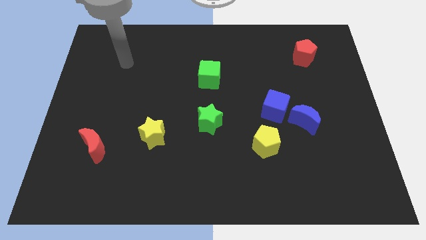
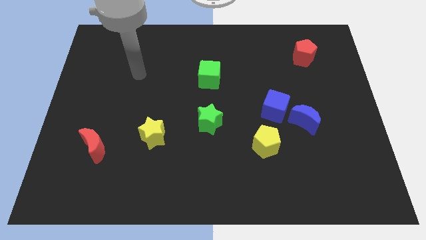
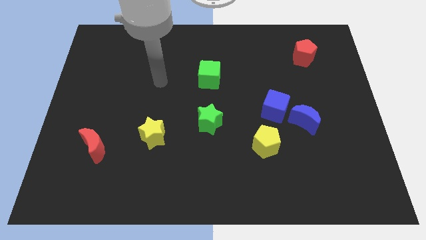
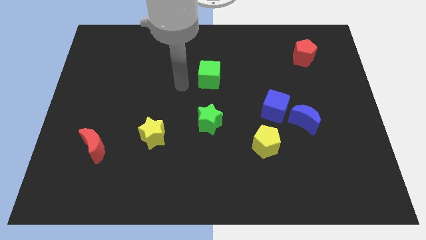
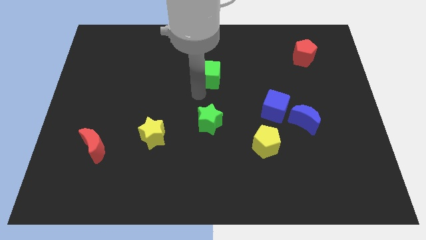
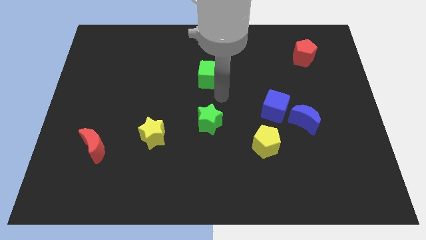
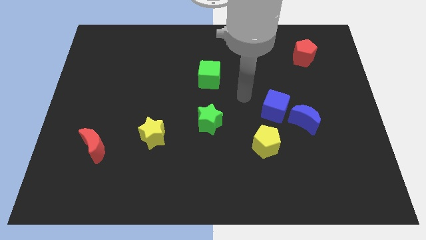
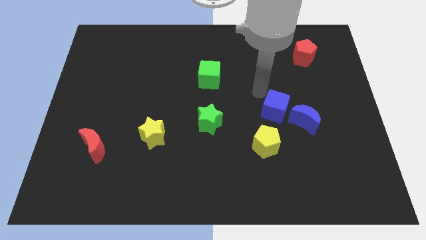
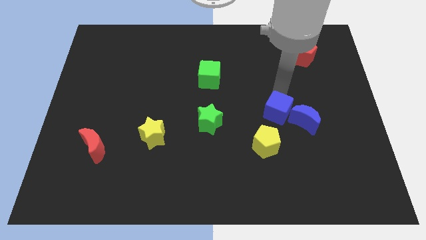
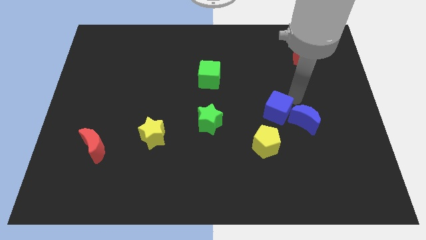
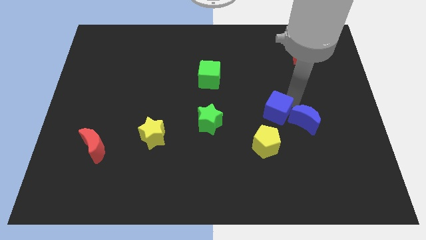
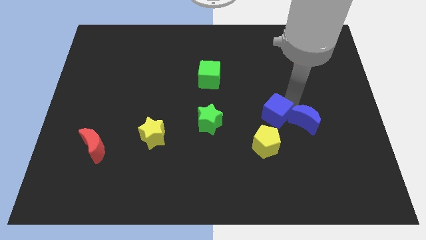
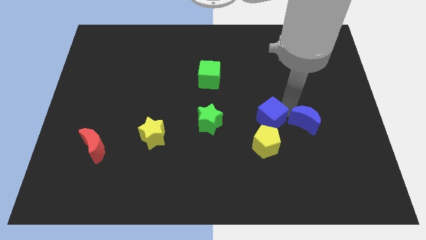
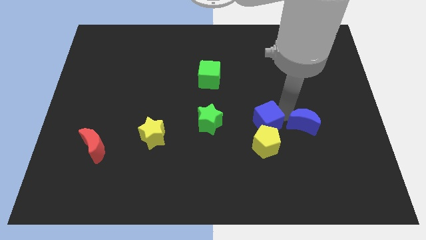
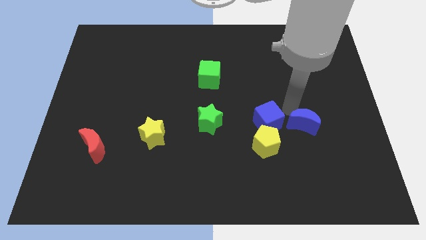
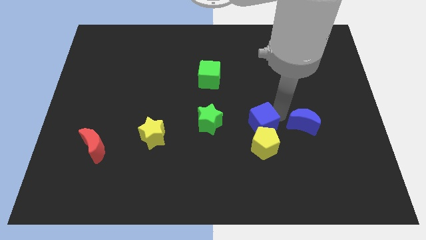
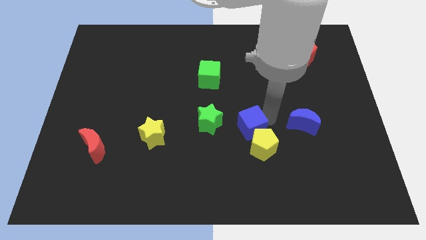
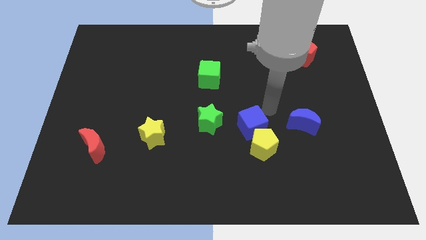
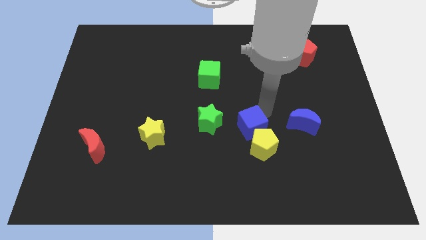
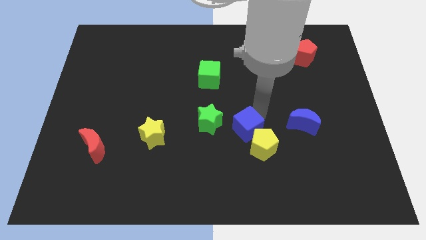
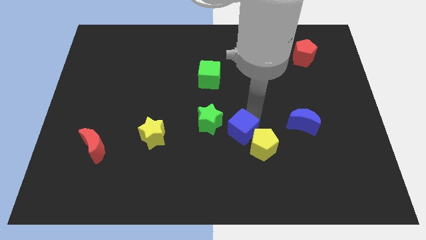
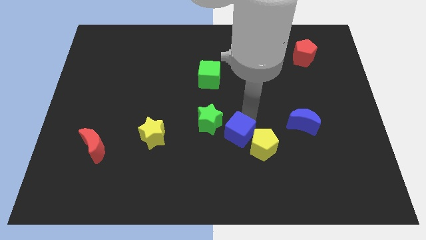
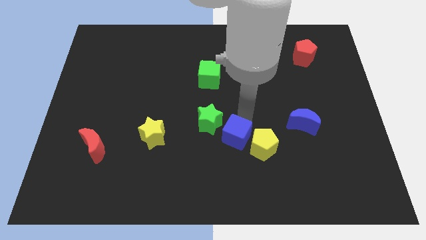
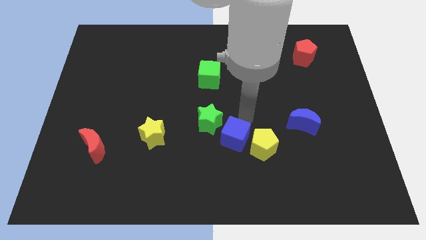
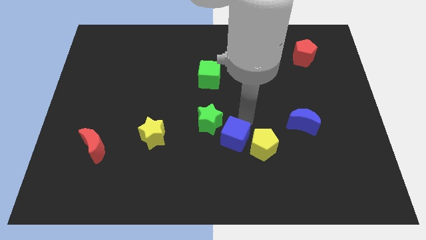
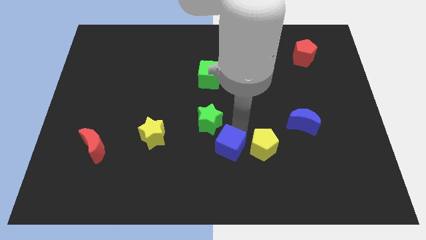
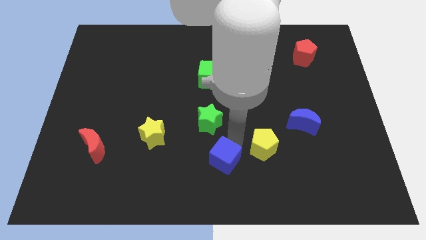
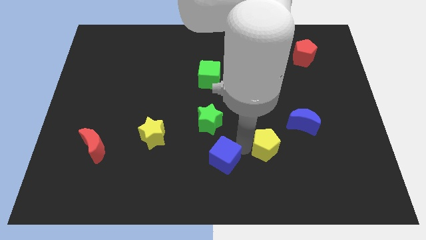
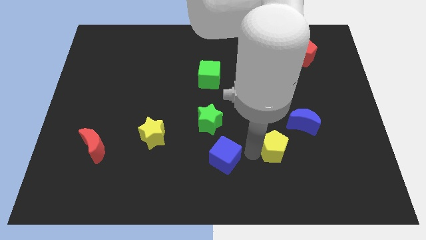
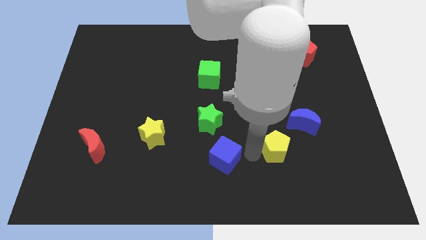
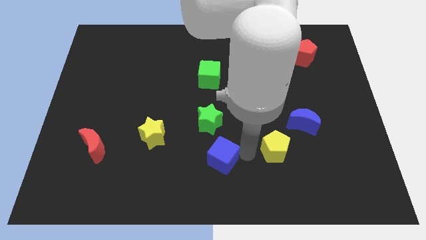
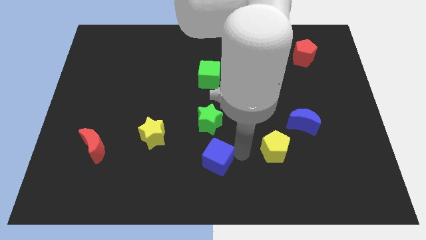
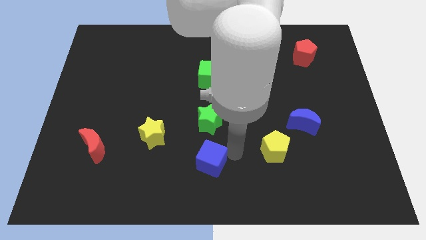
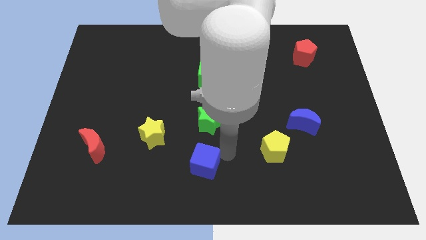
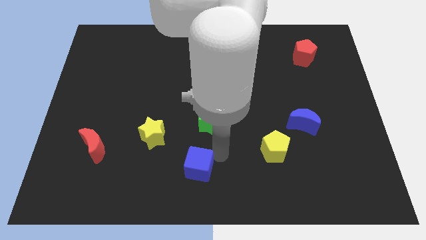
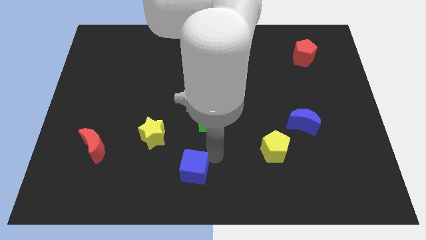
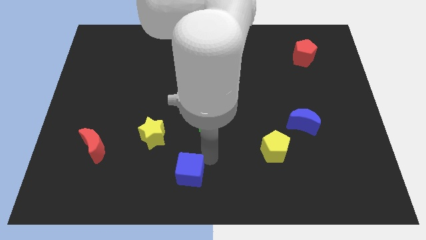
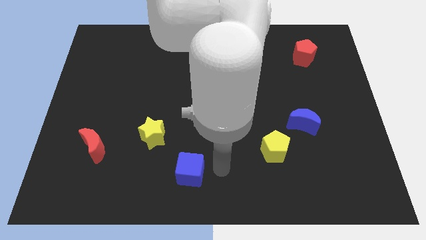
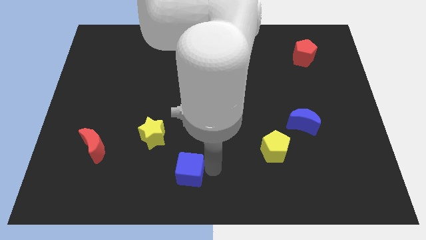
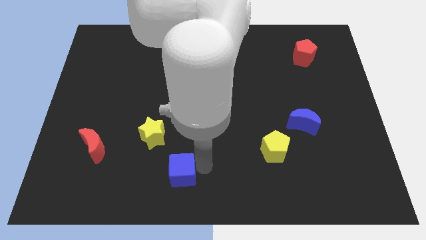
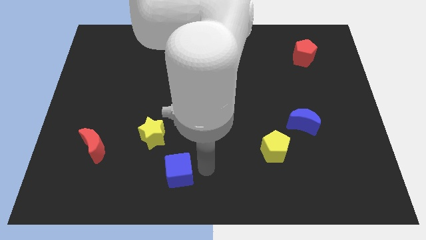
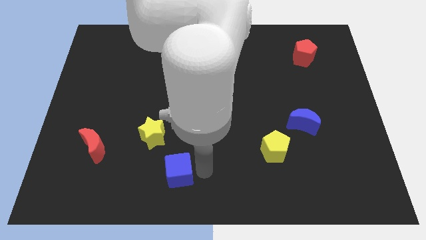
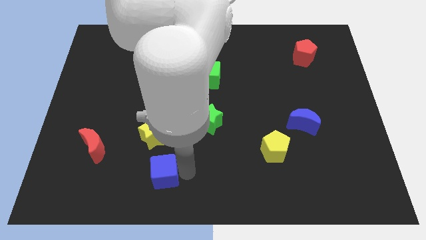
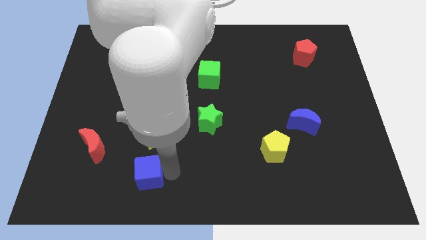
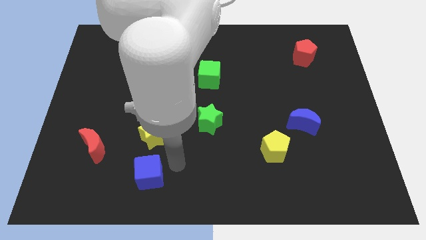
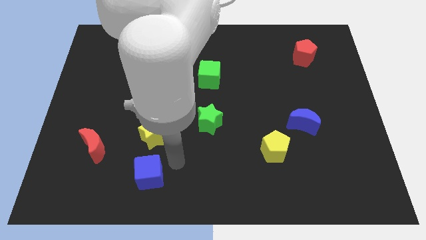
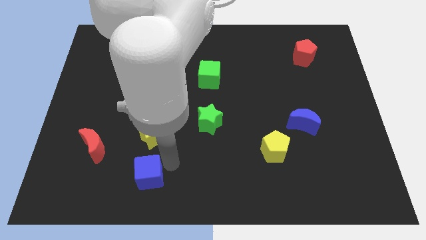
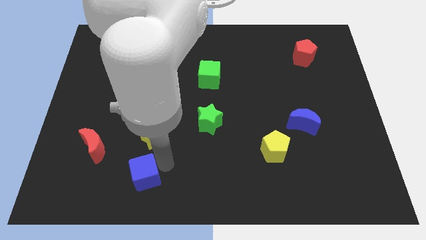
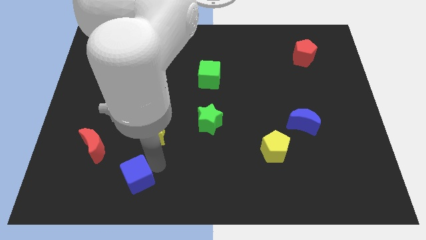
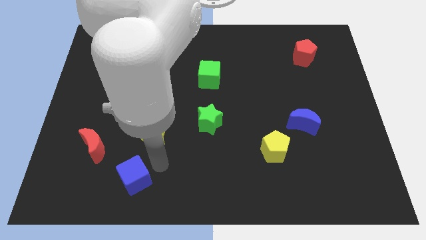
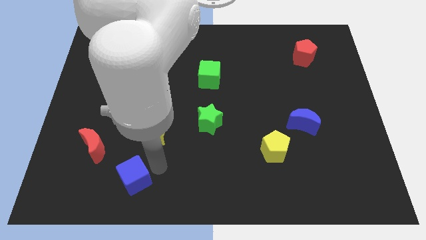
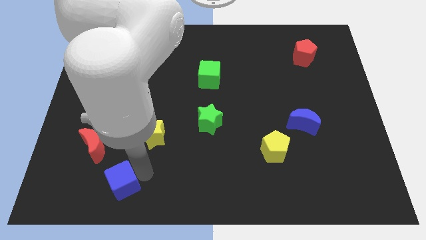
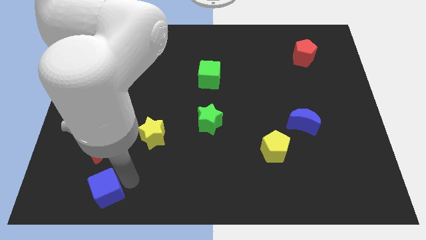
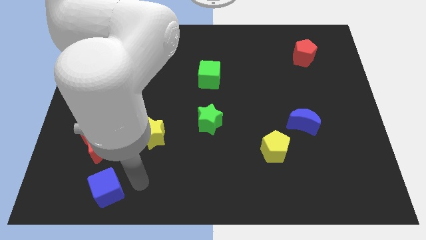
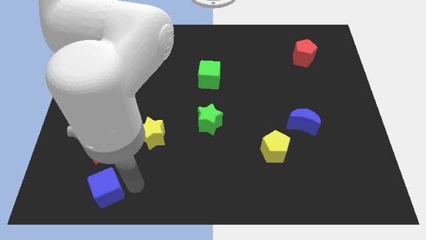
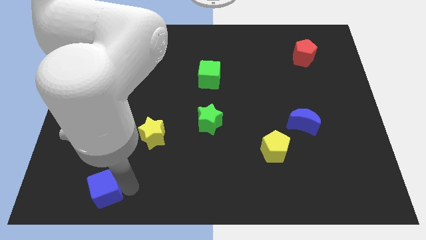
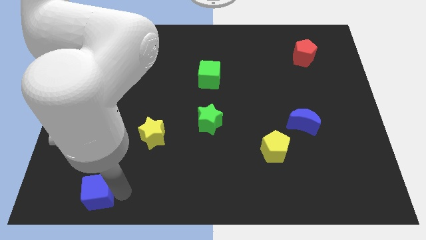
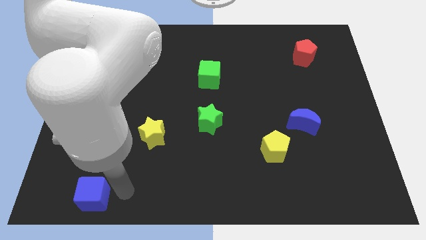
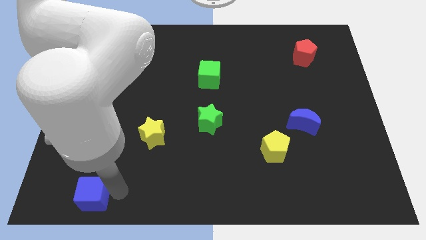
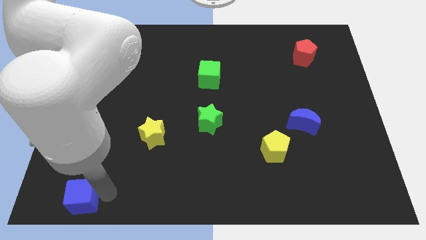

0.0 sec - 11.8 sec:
push the blue cube to the lower left corner
